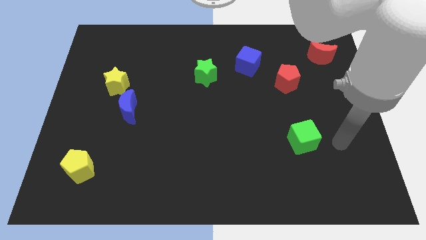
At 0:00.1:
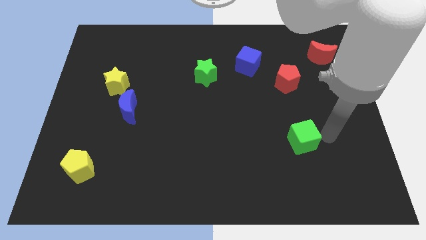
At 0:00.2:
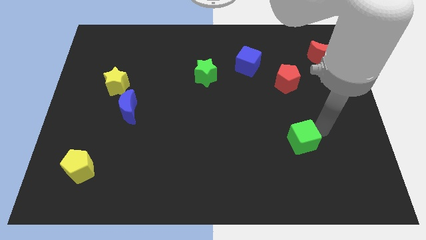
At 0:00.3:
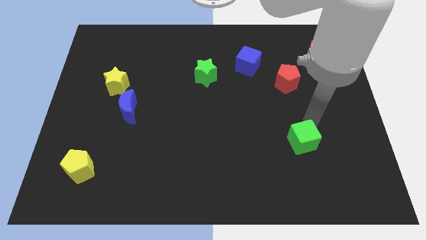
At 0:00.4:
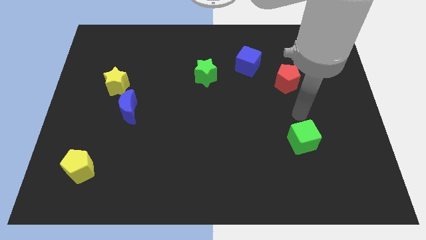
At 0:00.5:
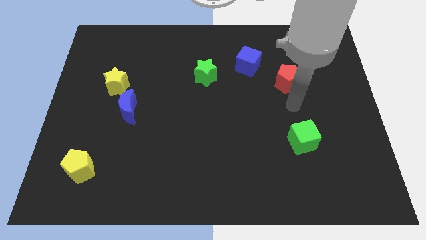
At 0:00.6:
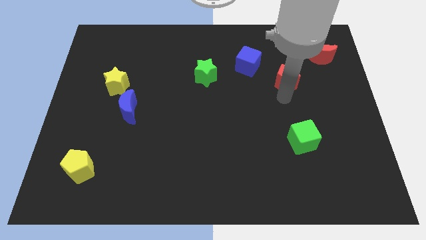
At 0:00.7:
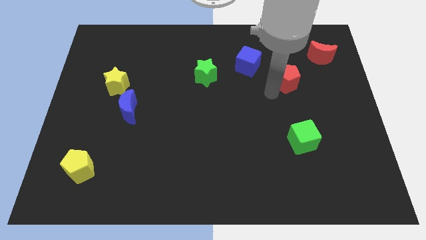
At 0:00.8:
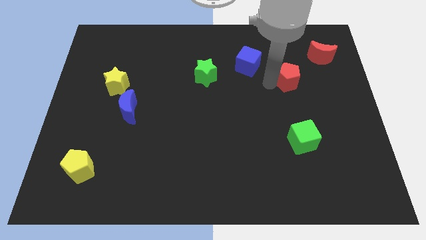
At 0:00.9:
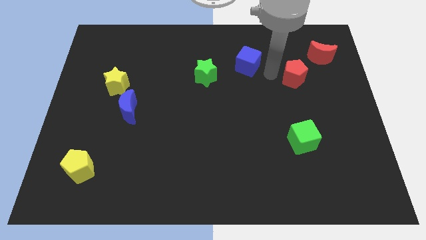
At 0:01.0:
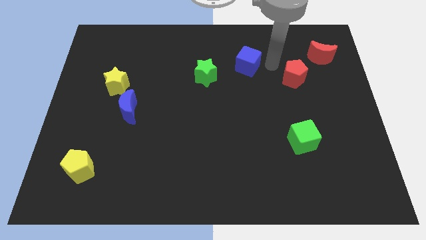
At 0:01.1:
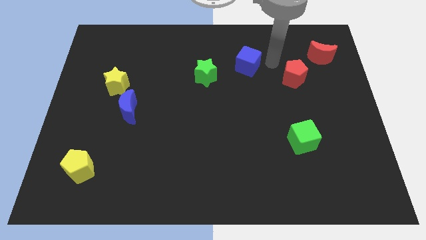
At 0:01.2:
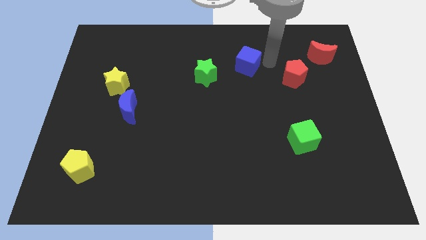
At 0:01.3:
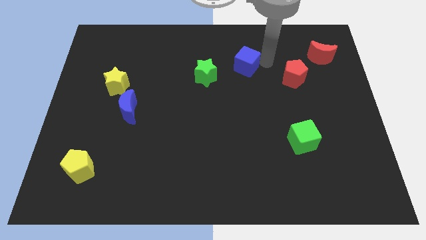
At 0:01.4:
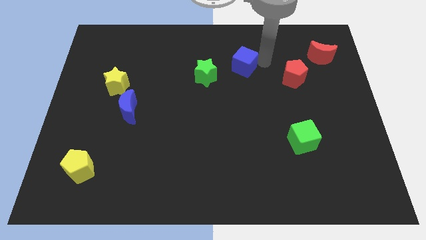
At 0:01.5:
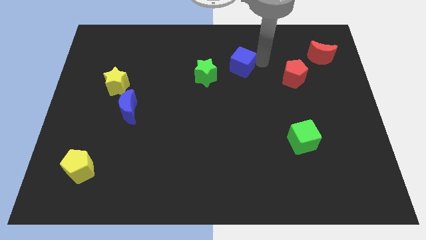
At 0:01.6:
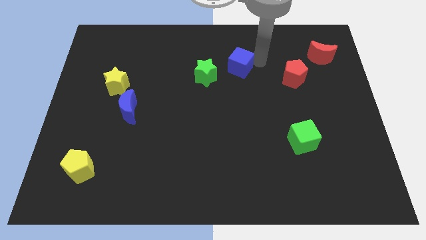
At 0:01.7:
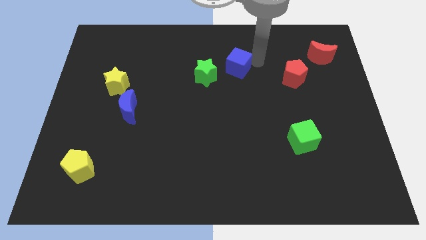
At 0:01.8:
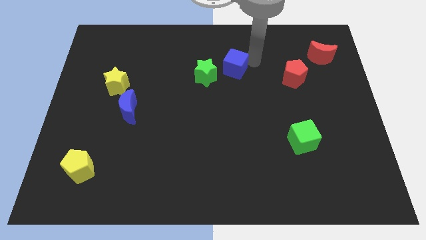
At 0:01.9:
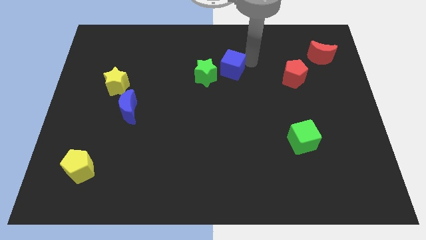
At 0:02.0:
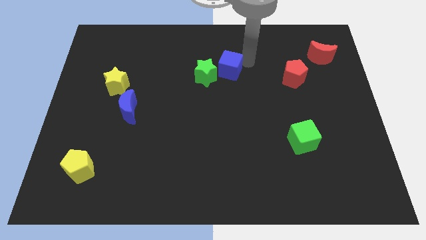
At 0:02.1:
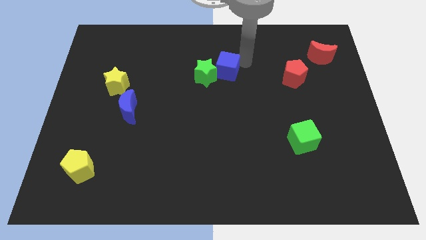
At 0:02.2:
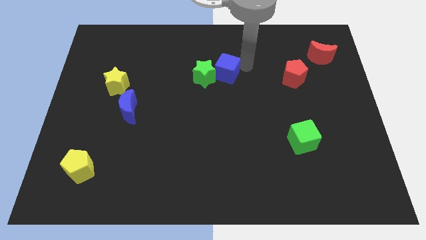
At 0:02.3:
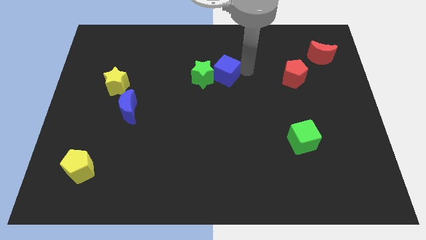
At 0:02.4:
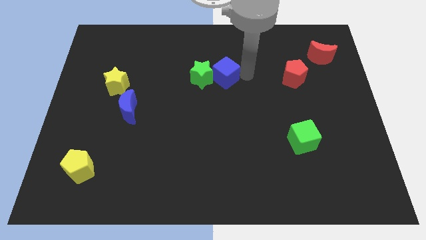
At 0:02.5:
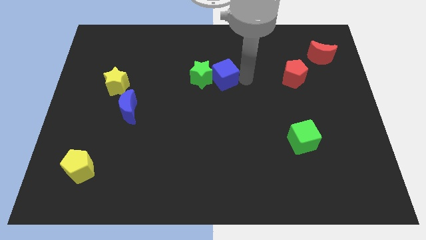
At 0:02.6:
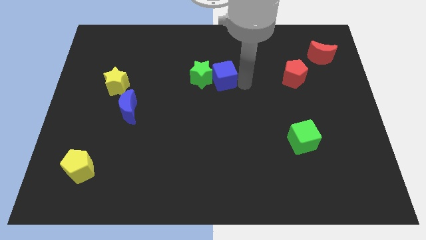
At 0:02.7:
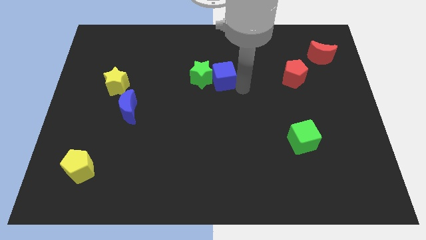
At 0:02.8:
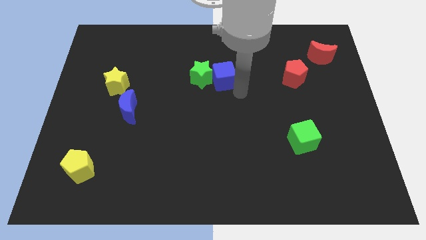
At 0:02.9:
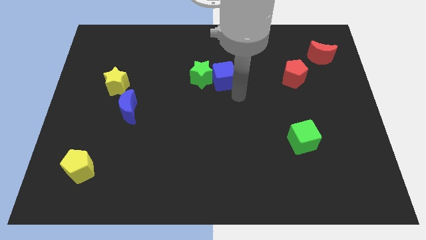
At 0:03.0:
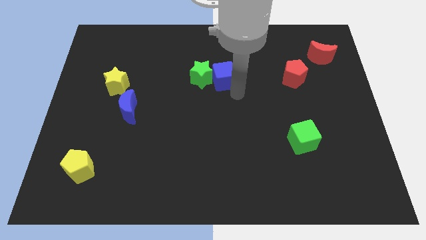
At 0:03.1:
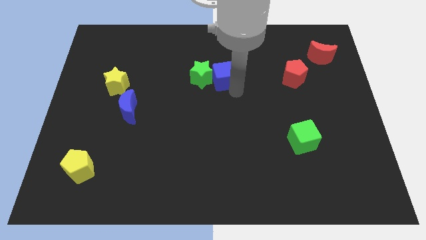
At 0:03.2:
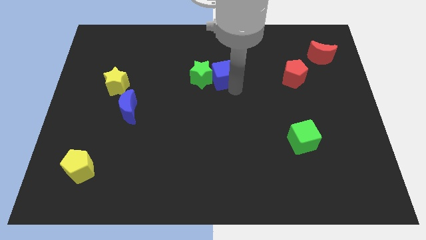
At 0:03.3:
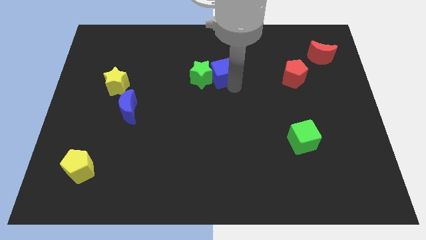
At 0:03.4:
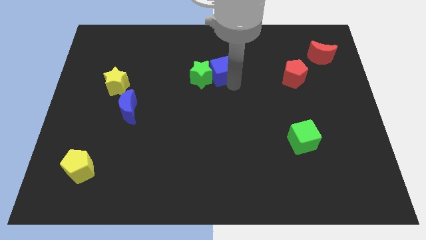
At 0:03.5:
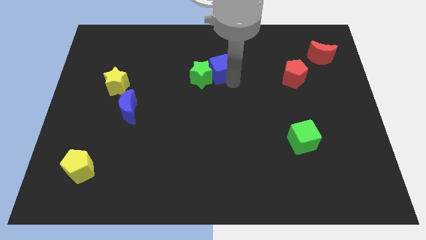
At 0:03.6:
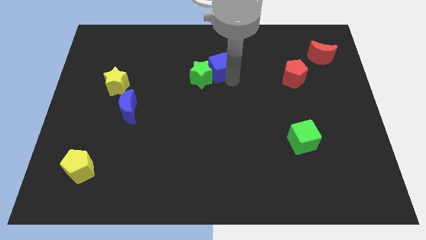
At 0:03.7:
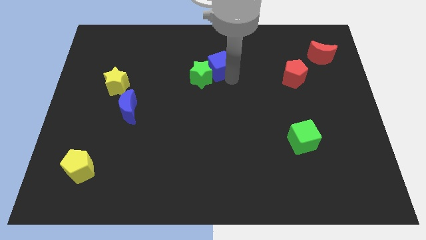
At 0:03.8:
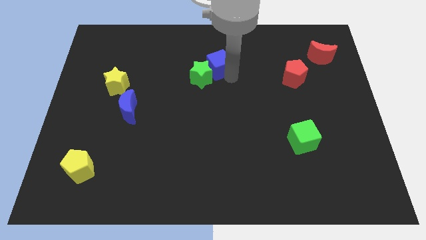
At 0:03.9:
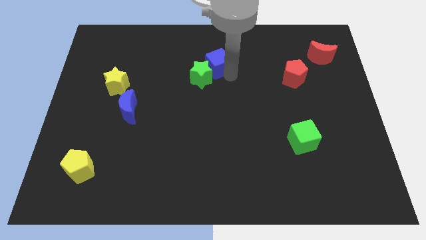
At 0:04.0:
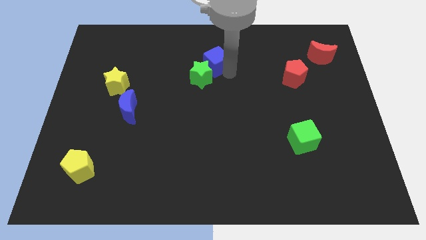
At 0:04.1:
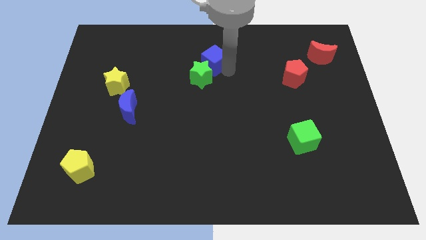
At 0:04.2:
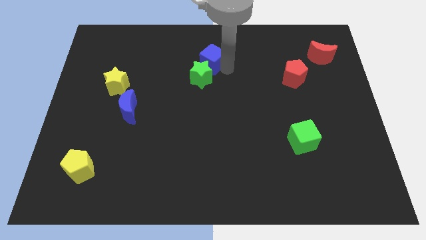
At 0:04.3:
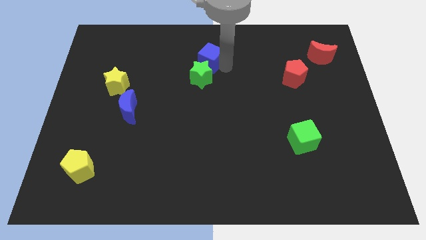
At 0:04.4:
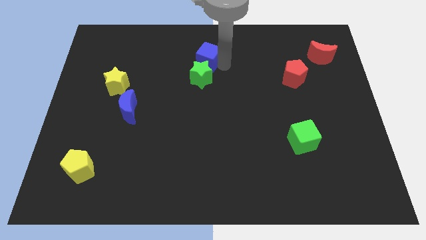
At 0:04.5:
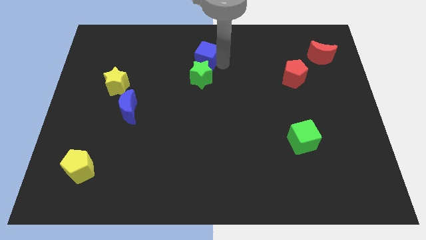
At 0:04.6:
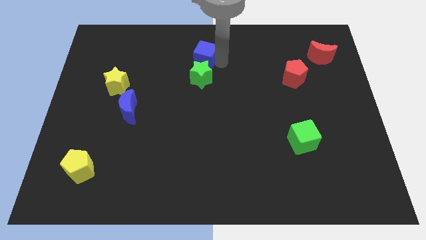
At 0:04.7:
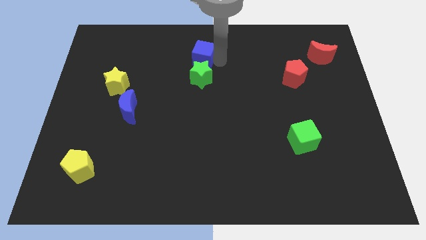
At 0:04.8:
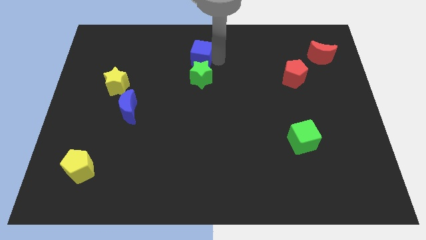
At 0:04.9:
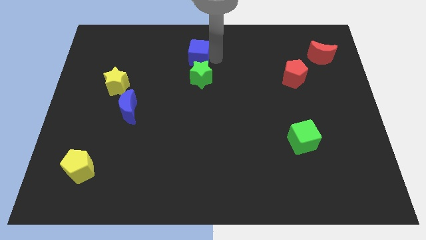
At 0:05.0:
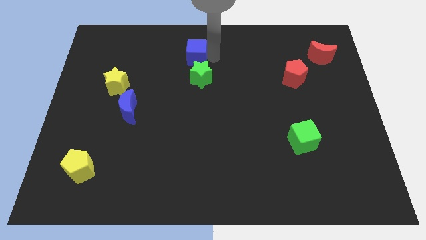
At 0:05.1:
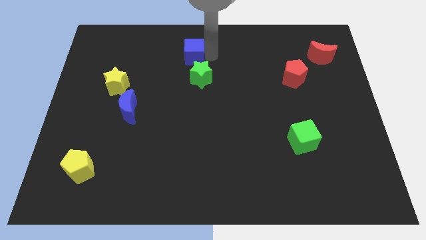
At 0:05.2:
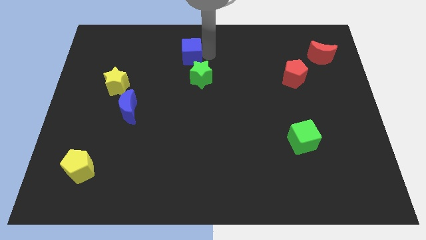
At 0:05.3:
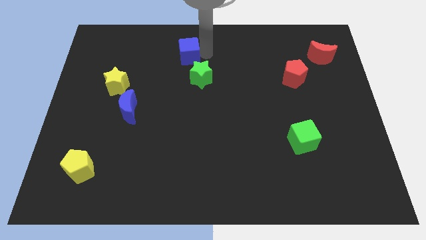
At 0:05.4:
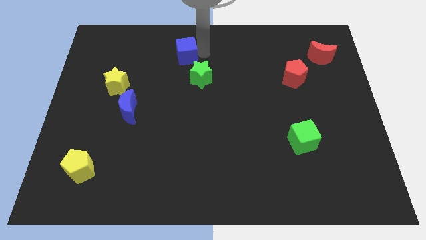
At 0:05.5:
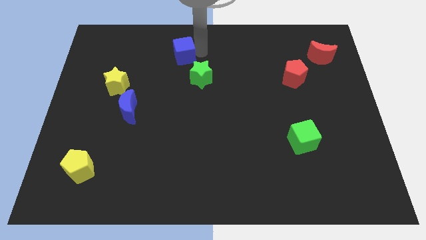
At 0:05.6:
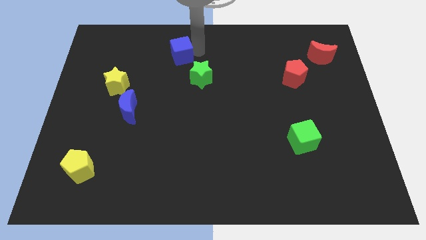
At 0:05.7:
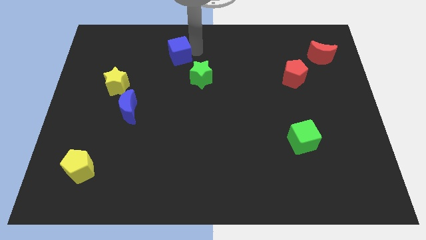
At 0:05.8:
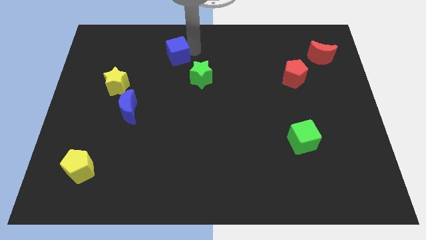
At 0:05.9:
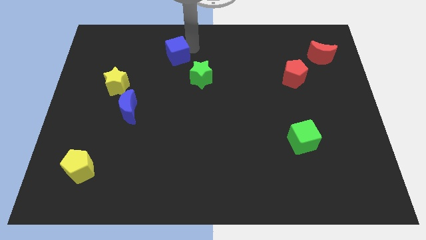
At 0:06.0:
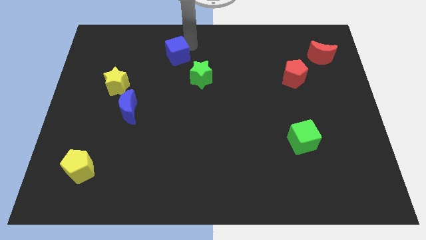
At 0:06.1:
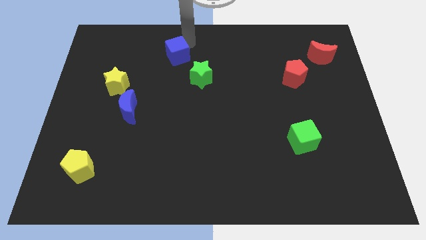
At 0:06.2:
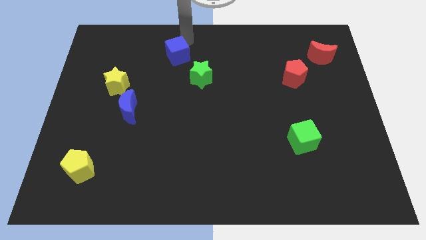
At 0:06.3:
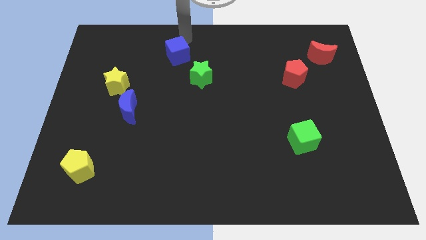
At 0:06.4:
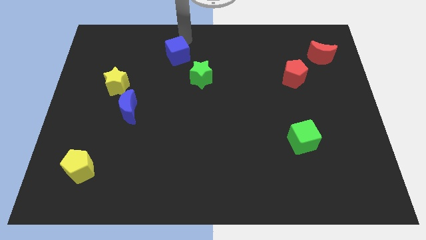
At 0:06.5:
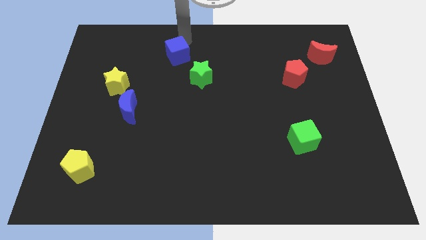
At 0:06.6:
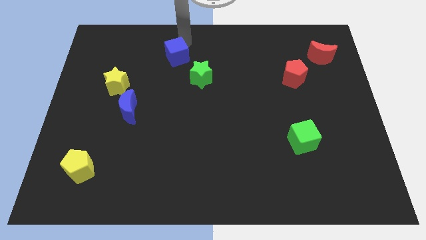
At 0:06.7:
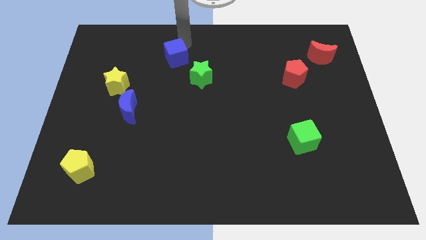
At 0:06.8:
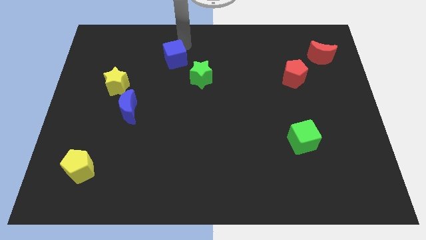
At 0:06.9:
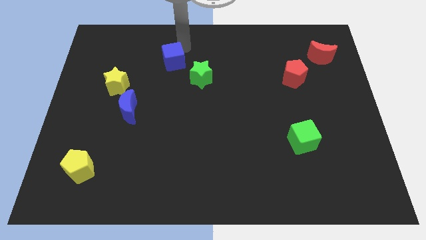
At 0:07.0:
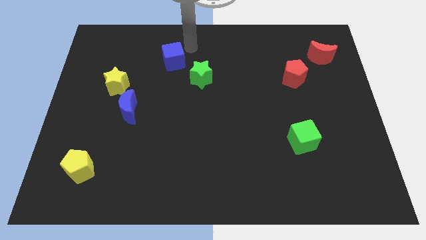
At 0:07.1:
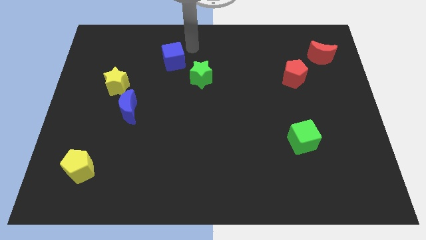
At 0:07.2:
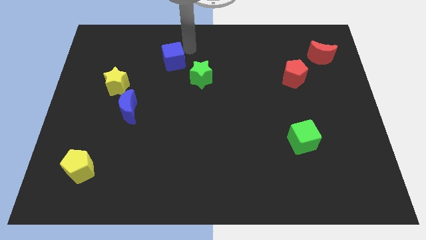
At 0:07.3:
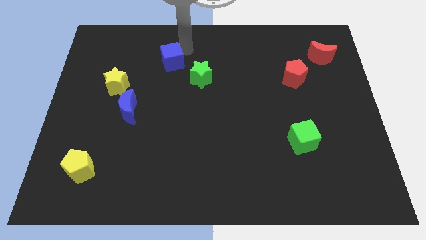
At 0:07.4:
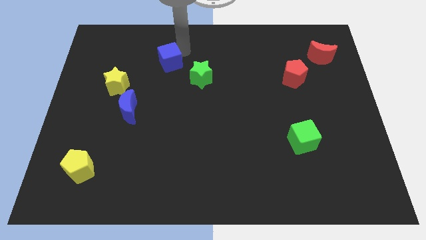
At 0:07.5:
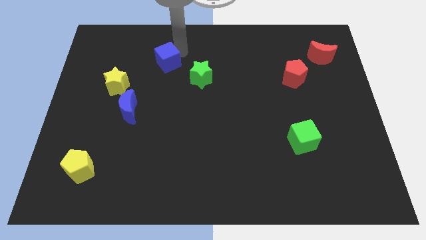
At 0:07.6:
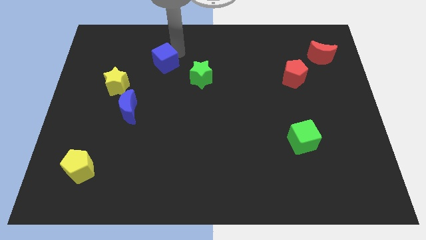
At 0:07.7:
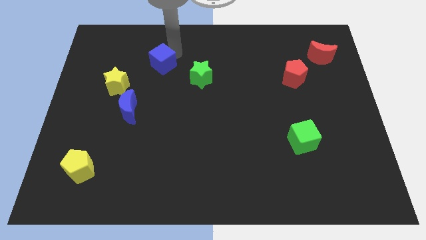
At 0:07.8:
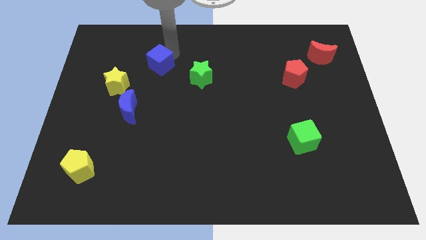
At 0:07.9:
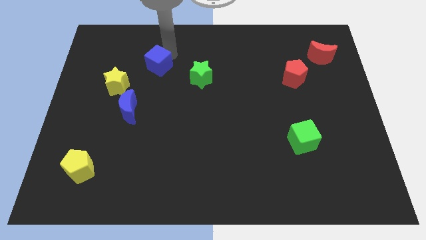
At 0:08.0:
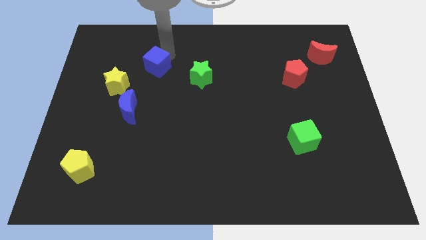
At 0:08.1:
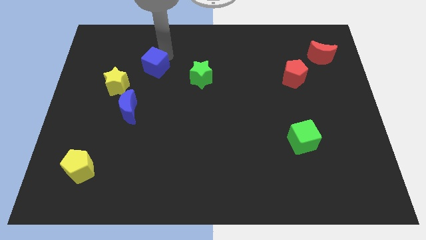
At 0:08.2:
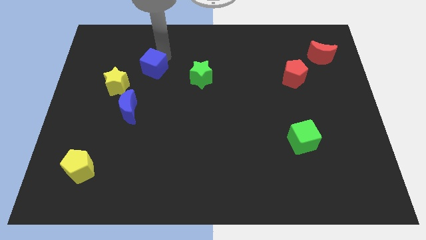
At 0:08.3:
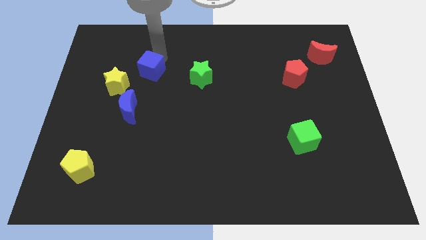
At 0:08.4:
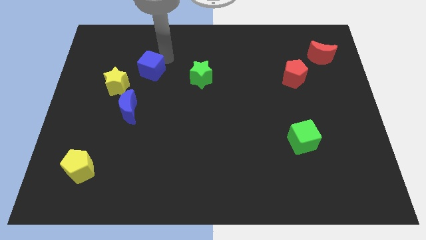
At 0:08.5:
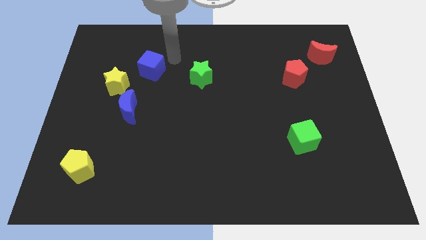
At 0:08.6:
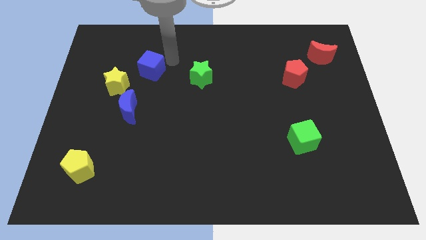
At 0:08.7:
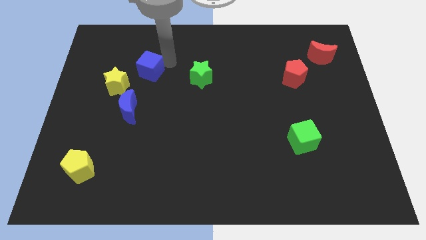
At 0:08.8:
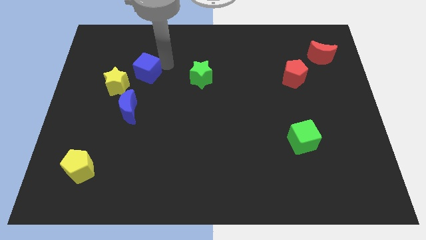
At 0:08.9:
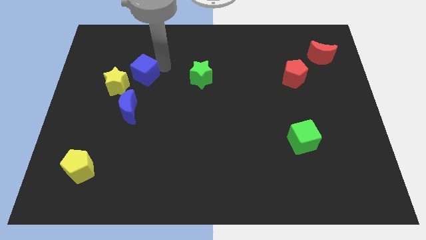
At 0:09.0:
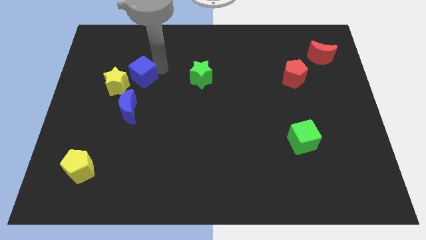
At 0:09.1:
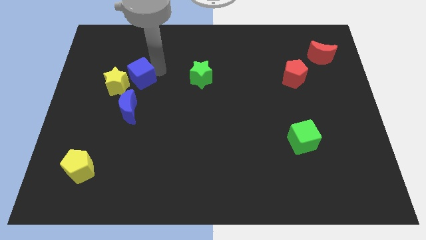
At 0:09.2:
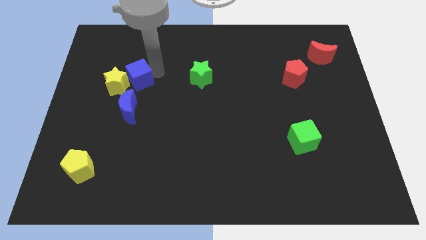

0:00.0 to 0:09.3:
push the blue cube next to the yellow star
